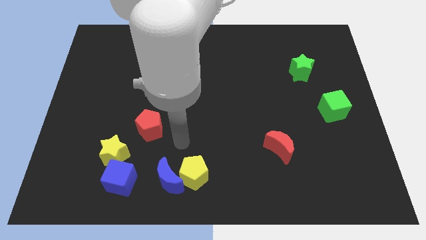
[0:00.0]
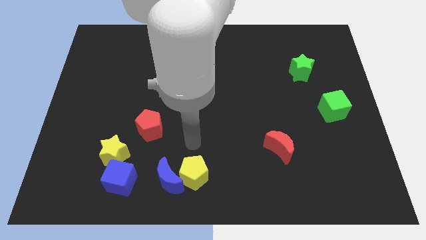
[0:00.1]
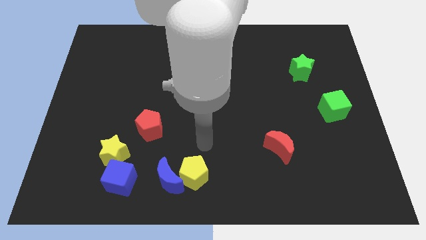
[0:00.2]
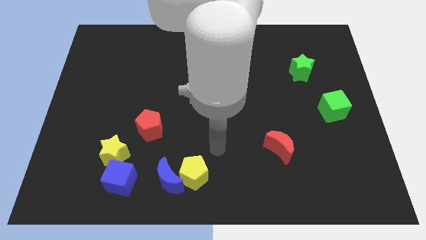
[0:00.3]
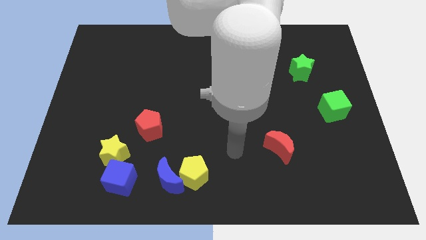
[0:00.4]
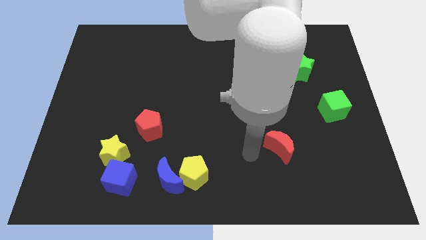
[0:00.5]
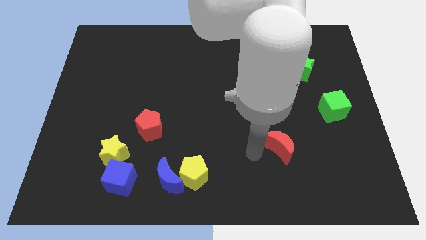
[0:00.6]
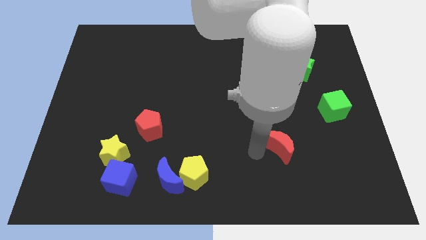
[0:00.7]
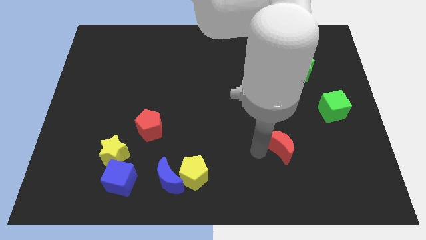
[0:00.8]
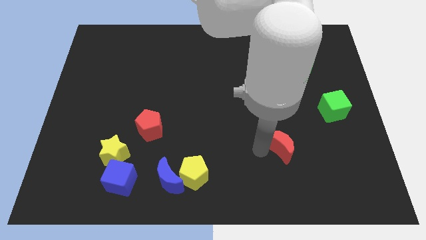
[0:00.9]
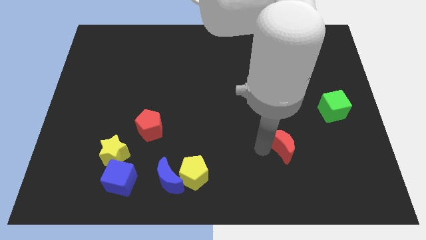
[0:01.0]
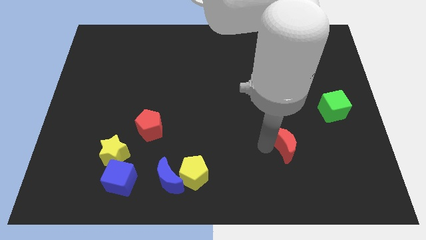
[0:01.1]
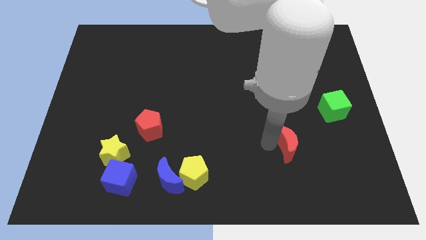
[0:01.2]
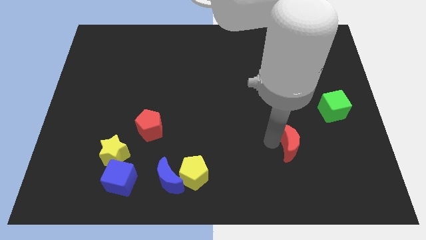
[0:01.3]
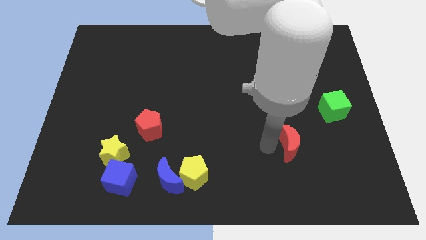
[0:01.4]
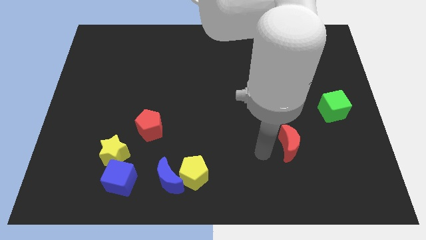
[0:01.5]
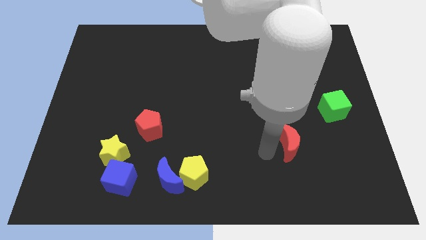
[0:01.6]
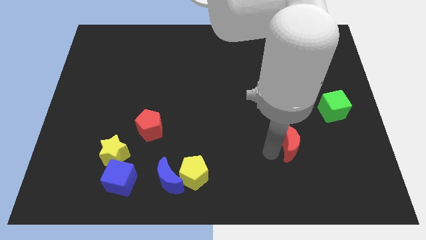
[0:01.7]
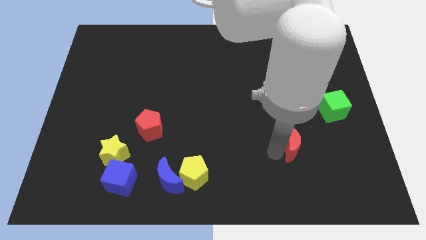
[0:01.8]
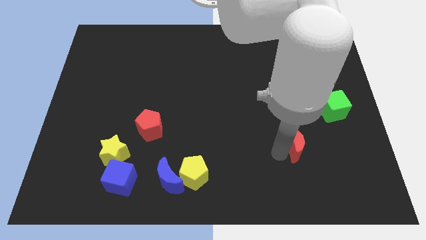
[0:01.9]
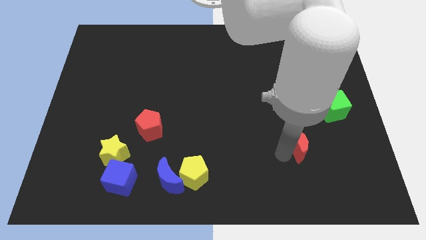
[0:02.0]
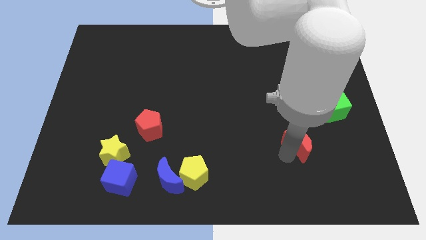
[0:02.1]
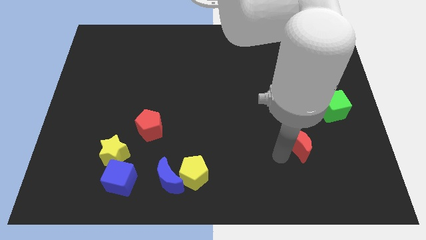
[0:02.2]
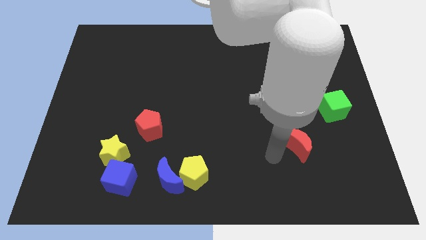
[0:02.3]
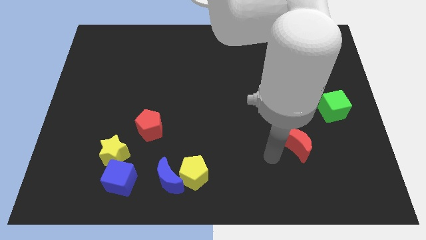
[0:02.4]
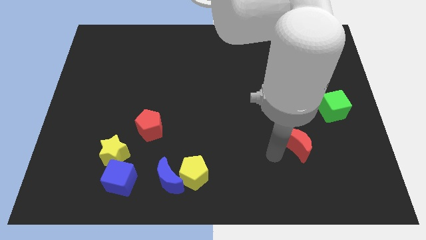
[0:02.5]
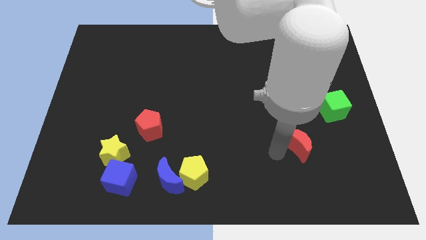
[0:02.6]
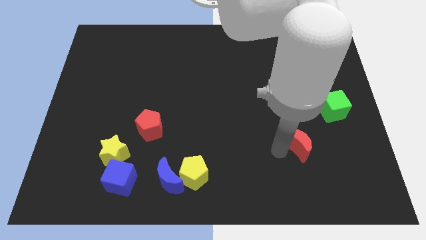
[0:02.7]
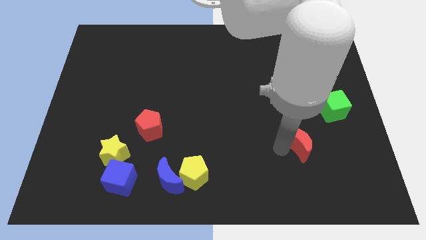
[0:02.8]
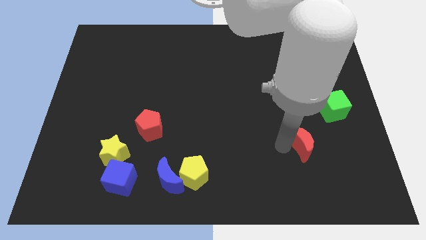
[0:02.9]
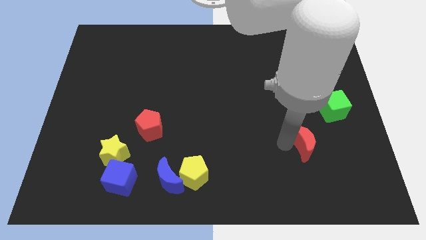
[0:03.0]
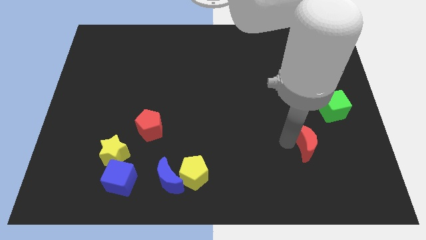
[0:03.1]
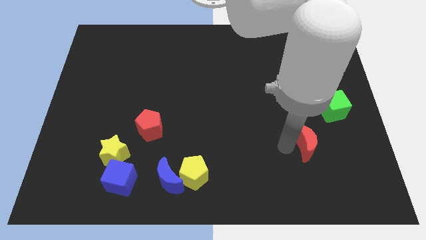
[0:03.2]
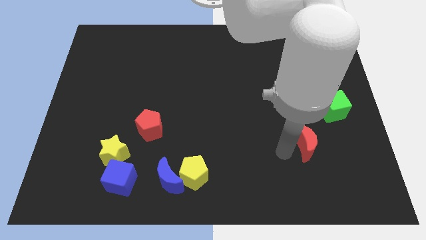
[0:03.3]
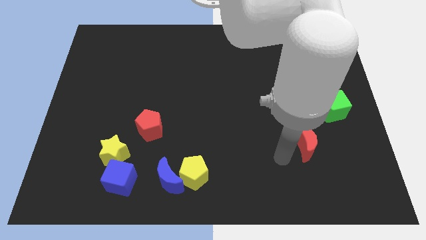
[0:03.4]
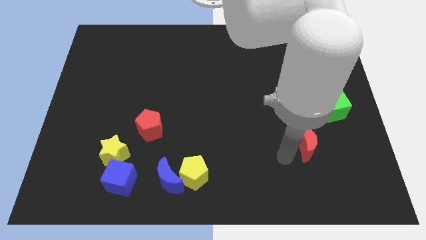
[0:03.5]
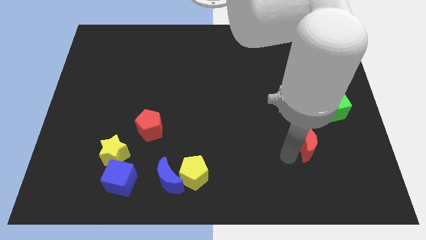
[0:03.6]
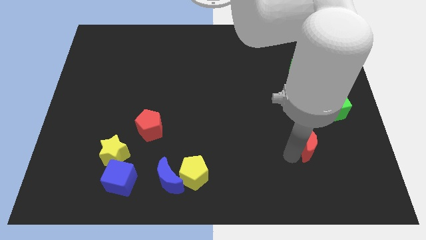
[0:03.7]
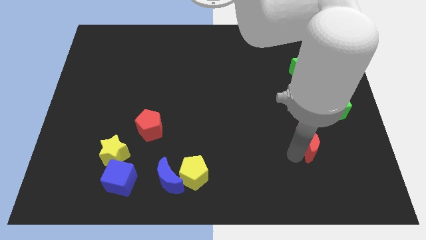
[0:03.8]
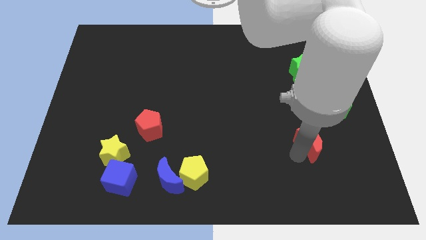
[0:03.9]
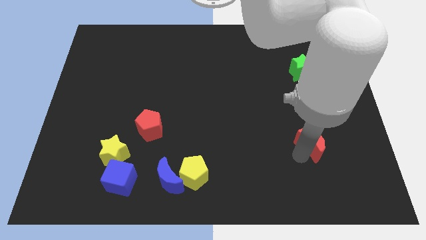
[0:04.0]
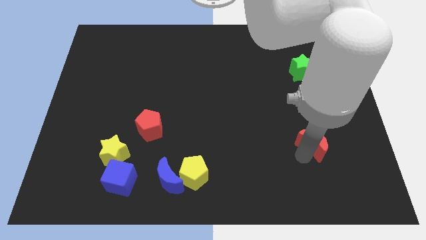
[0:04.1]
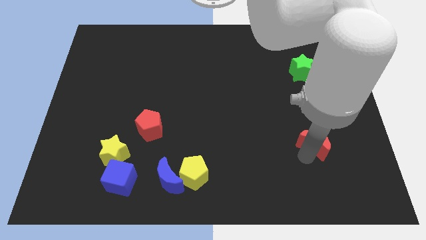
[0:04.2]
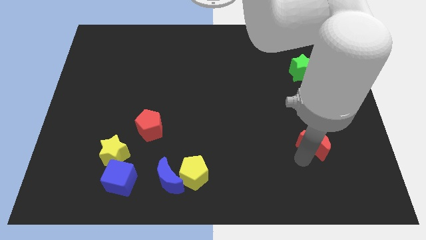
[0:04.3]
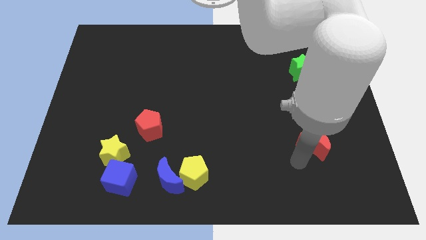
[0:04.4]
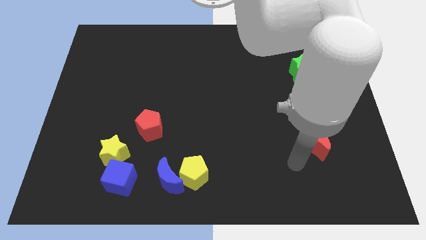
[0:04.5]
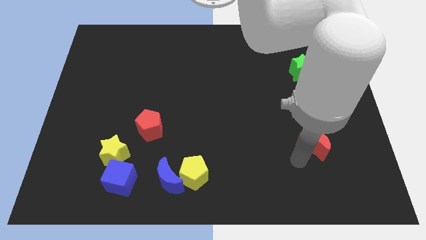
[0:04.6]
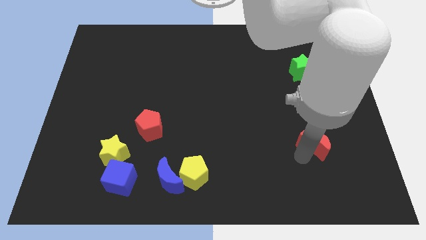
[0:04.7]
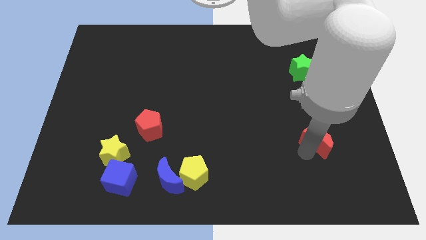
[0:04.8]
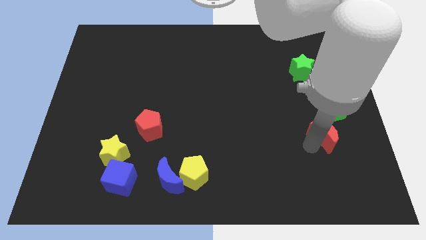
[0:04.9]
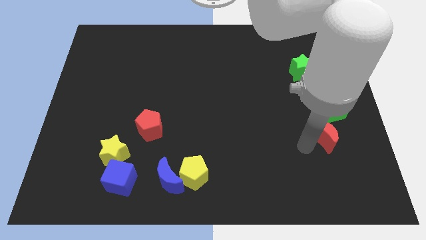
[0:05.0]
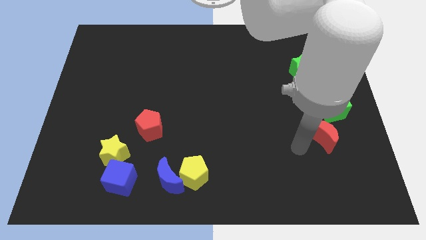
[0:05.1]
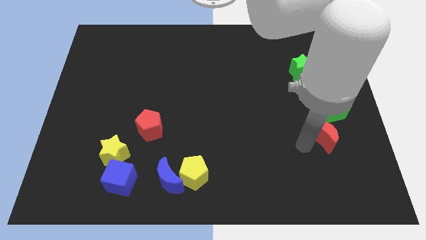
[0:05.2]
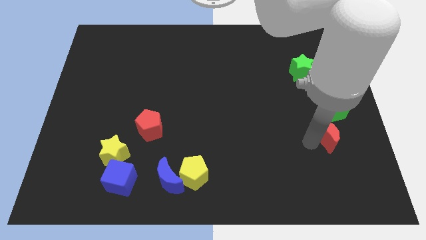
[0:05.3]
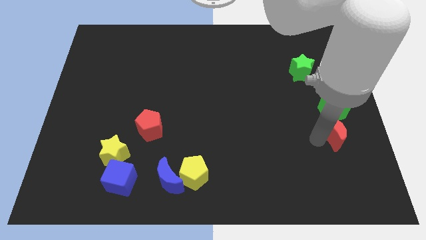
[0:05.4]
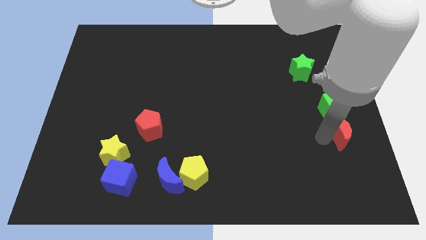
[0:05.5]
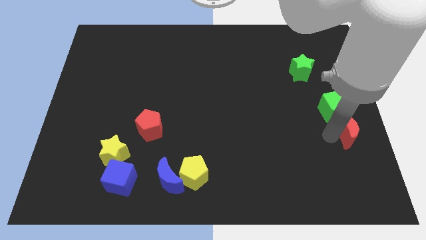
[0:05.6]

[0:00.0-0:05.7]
slide the red moon to the center right

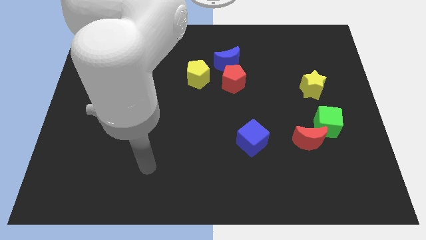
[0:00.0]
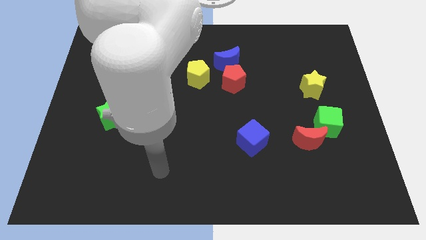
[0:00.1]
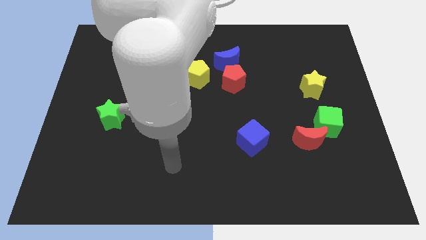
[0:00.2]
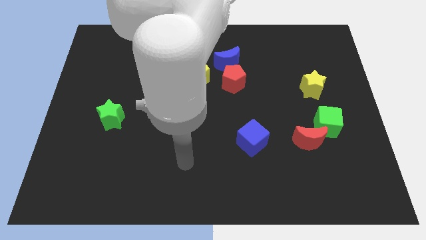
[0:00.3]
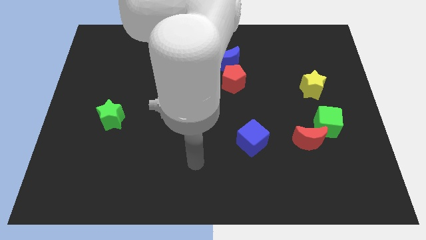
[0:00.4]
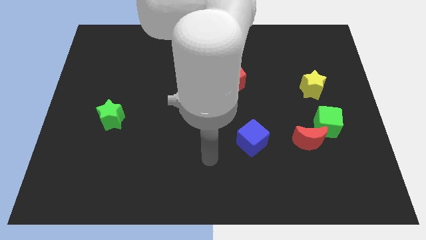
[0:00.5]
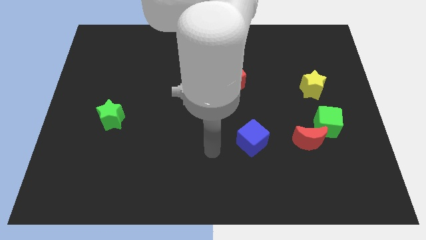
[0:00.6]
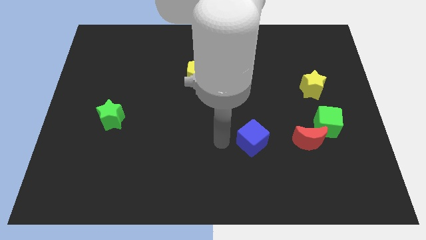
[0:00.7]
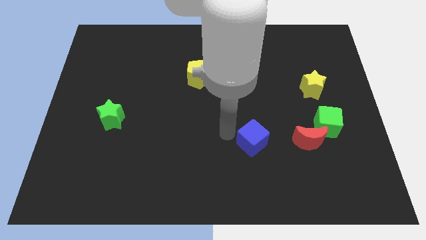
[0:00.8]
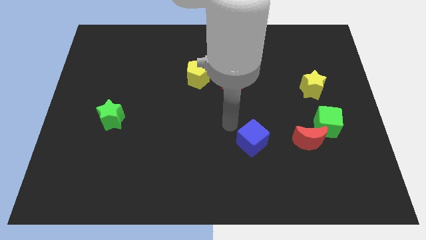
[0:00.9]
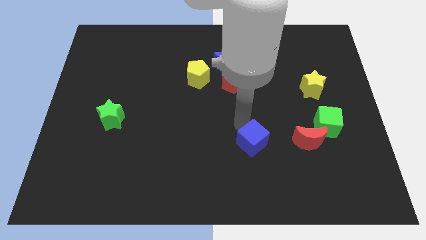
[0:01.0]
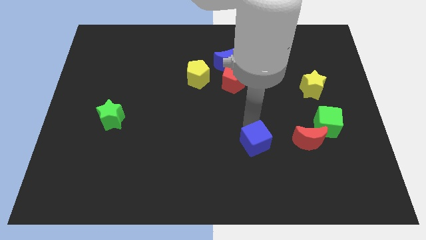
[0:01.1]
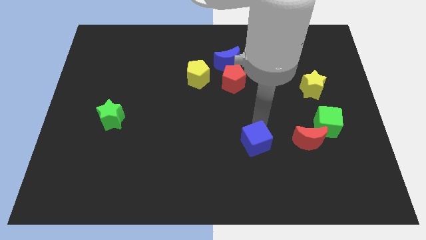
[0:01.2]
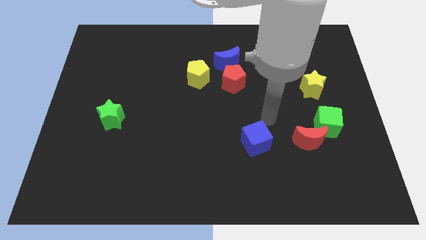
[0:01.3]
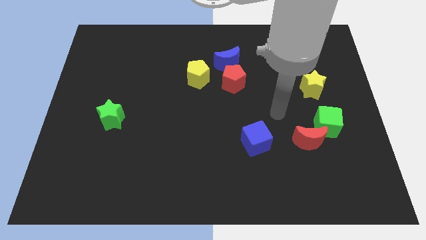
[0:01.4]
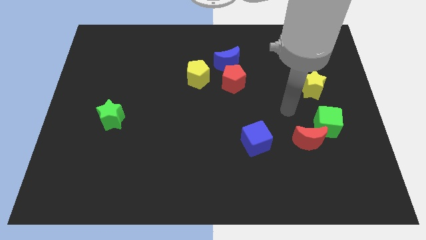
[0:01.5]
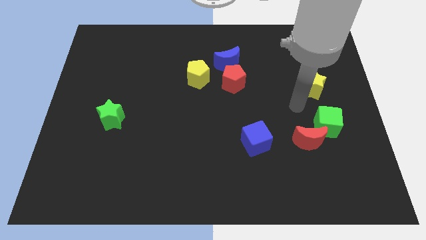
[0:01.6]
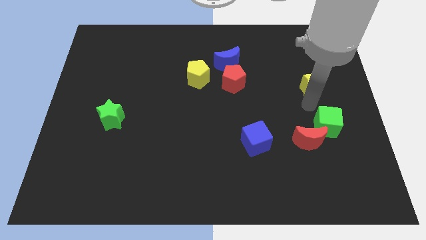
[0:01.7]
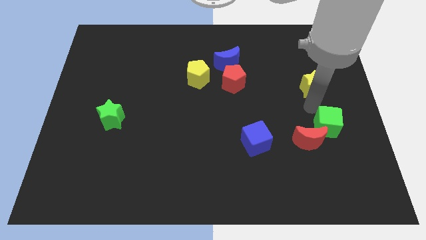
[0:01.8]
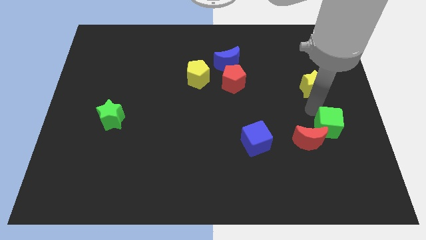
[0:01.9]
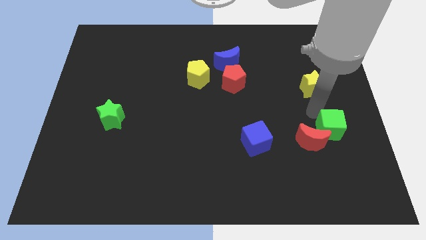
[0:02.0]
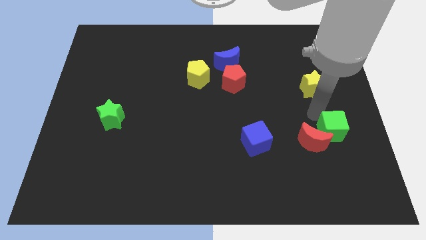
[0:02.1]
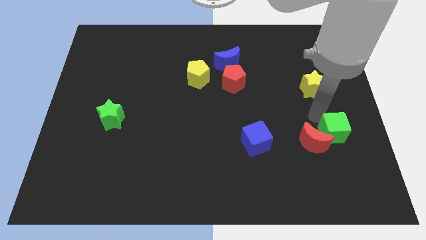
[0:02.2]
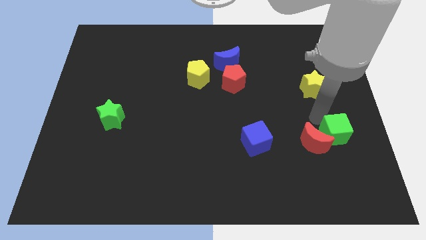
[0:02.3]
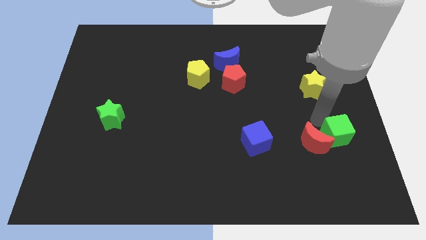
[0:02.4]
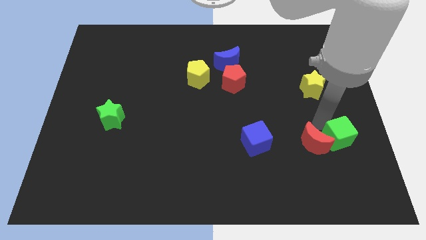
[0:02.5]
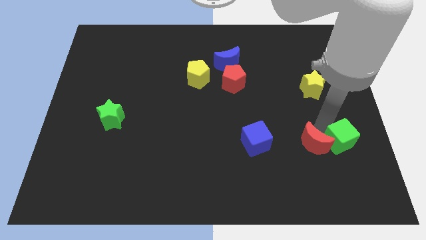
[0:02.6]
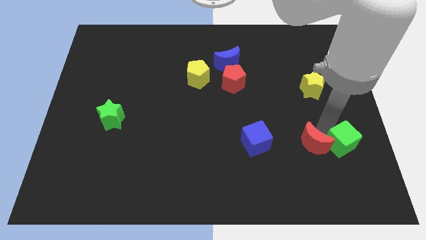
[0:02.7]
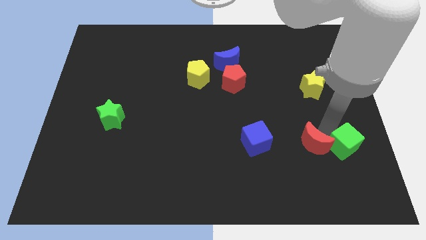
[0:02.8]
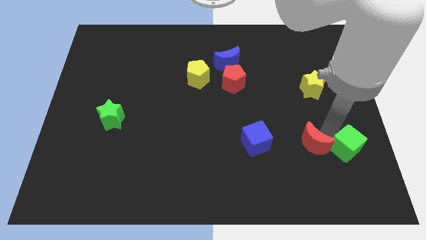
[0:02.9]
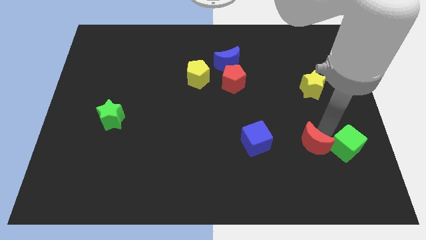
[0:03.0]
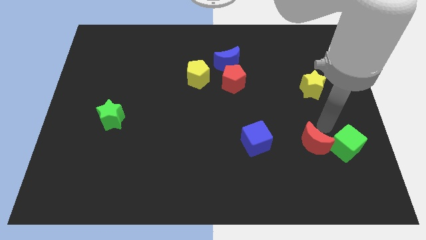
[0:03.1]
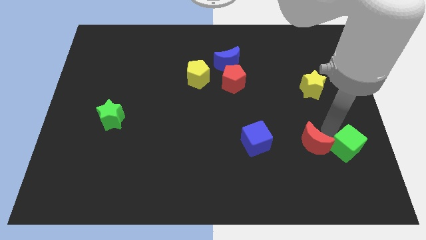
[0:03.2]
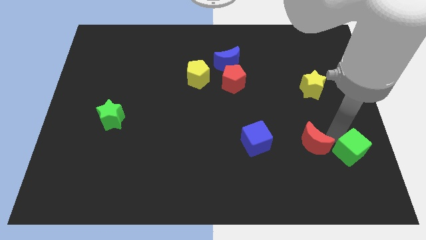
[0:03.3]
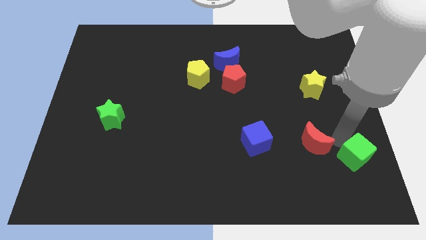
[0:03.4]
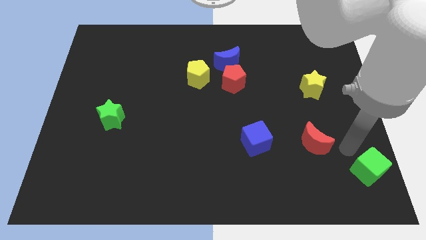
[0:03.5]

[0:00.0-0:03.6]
push the green cube to the lower right corner
